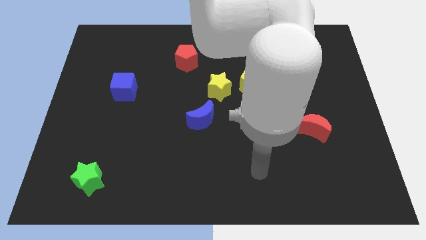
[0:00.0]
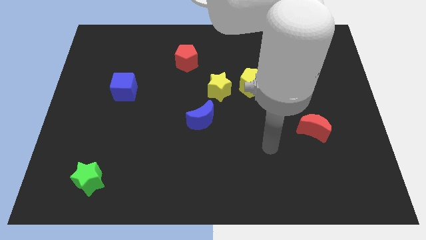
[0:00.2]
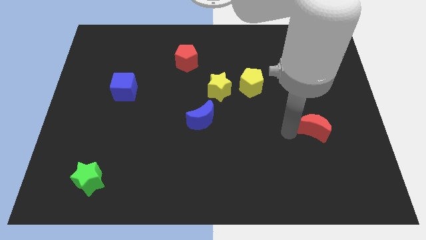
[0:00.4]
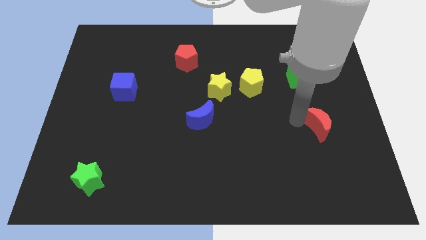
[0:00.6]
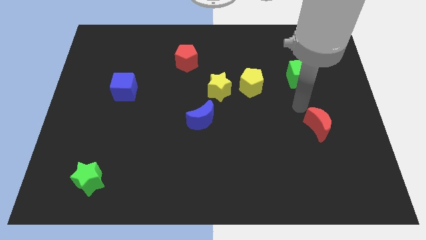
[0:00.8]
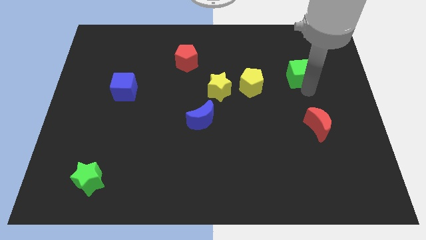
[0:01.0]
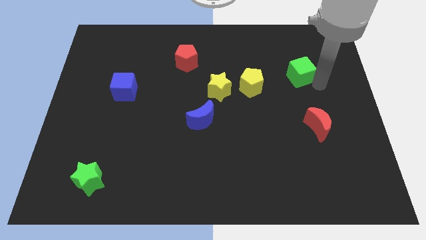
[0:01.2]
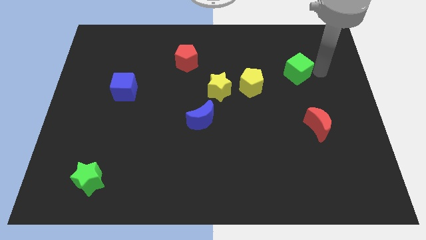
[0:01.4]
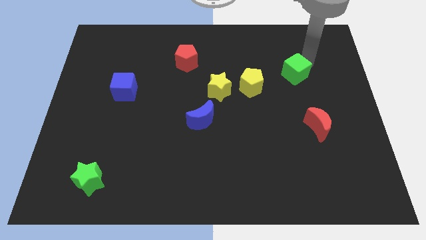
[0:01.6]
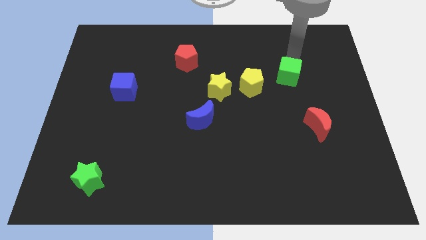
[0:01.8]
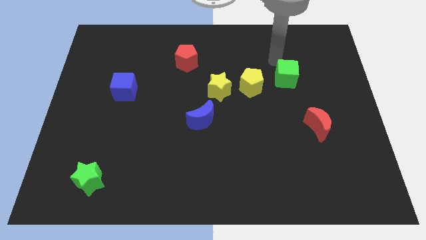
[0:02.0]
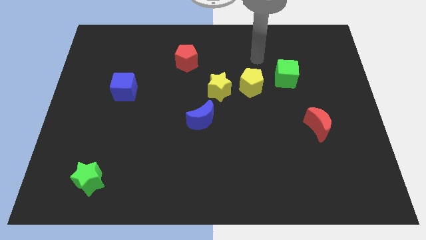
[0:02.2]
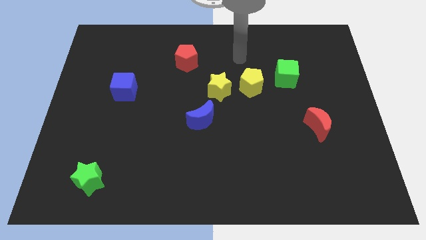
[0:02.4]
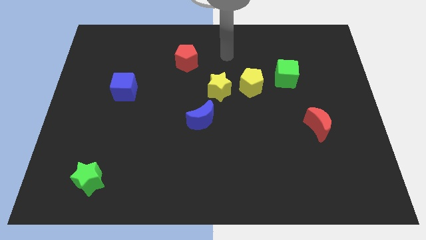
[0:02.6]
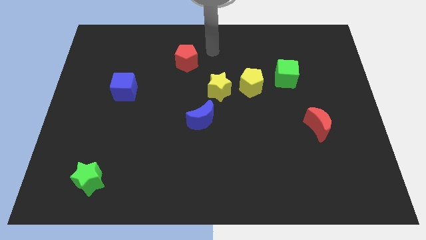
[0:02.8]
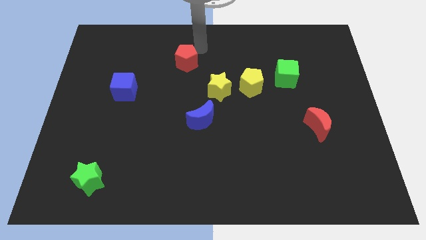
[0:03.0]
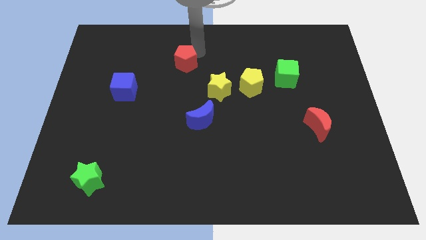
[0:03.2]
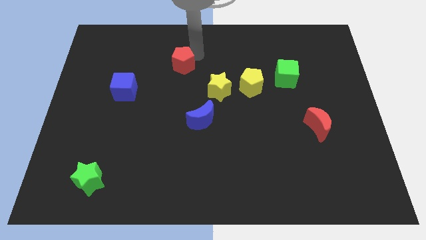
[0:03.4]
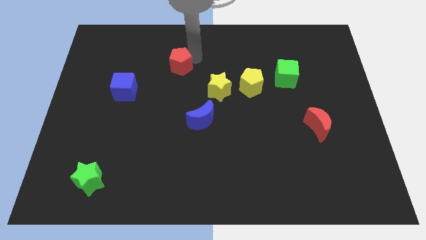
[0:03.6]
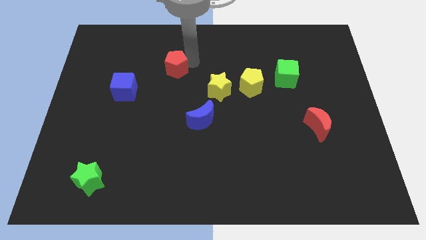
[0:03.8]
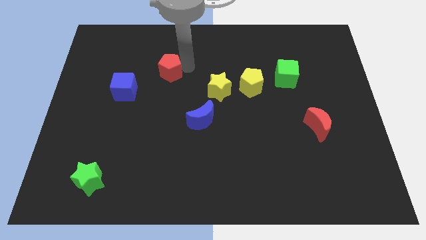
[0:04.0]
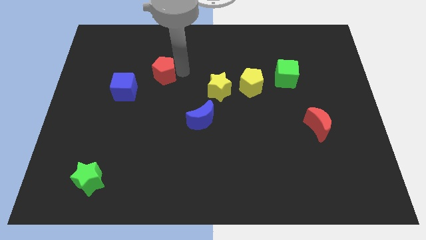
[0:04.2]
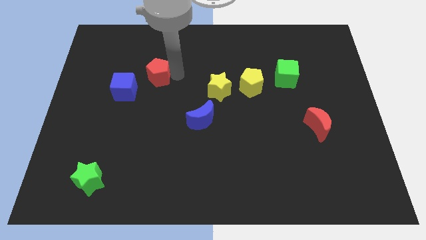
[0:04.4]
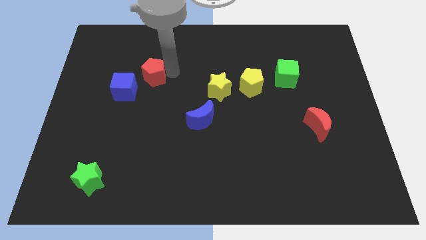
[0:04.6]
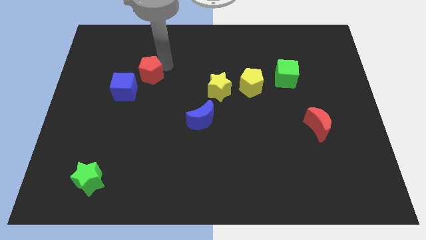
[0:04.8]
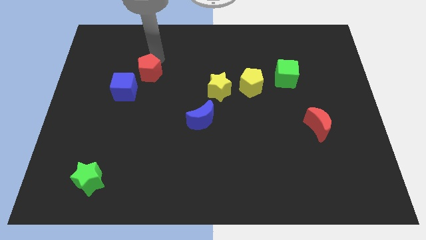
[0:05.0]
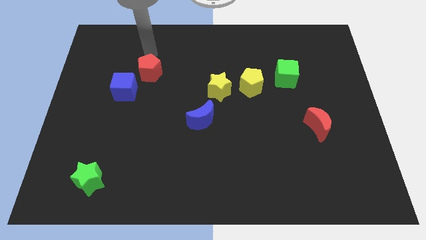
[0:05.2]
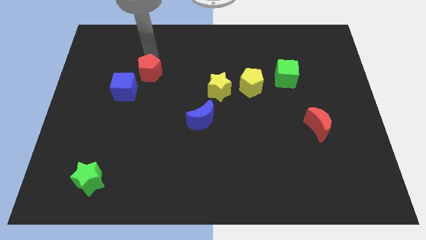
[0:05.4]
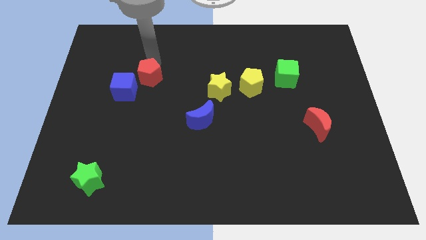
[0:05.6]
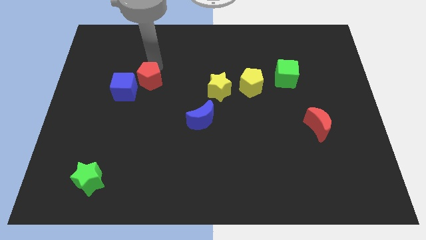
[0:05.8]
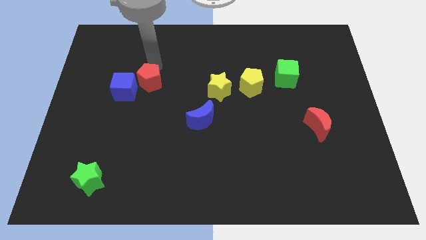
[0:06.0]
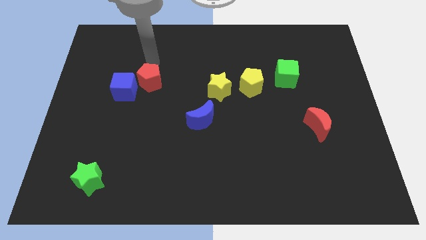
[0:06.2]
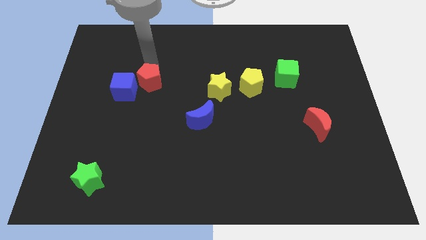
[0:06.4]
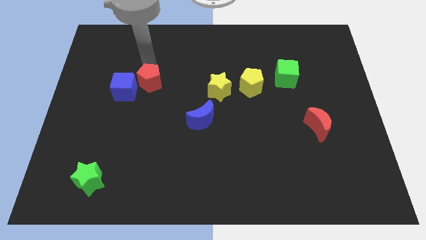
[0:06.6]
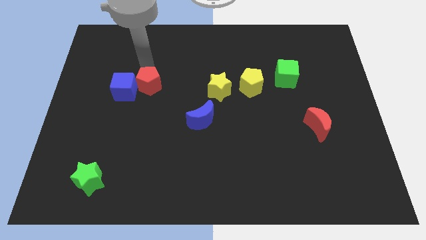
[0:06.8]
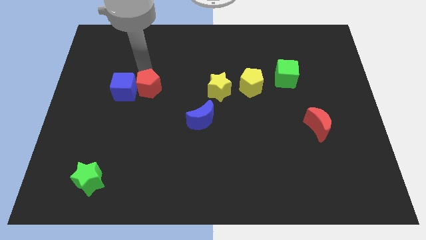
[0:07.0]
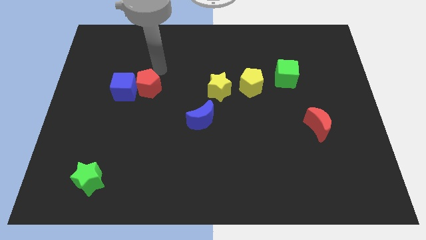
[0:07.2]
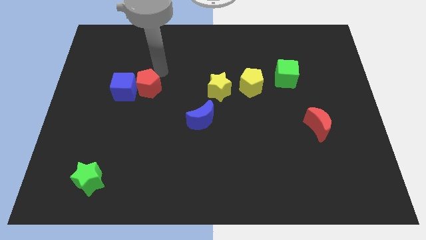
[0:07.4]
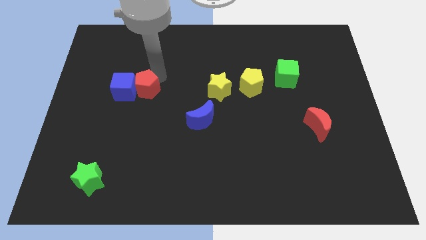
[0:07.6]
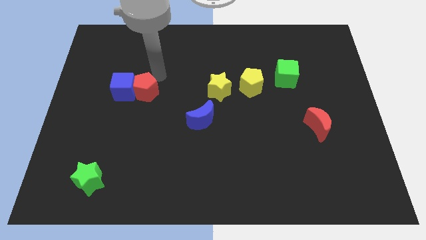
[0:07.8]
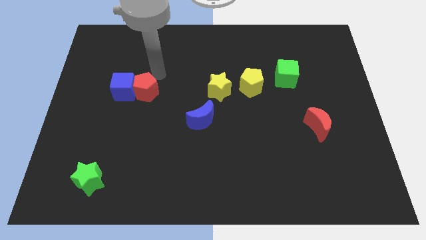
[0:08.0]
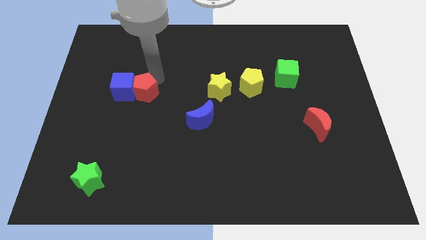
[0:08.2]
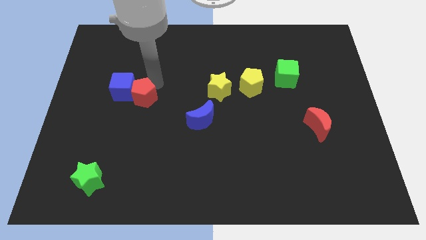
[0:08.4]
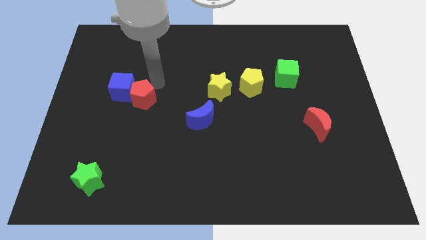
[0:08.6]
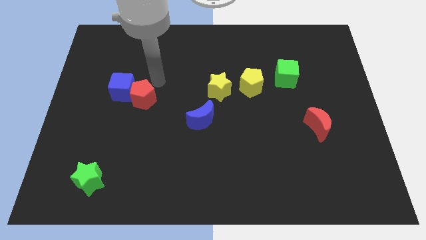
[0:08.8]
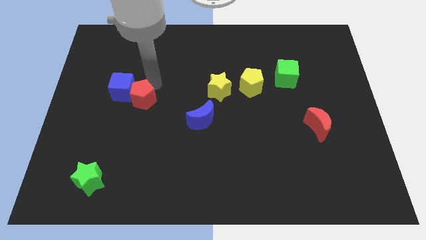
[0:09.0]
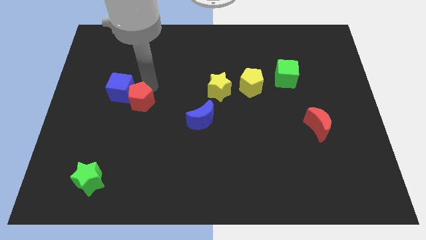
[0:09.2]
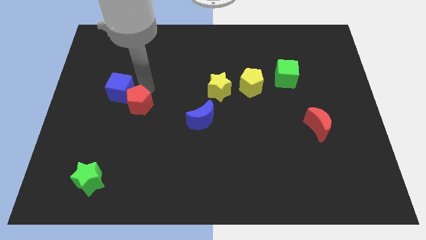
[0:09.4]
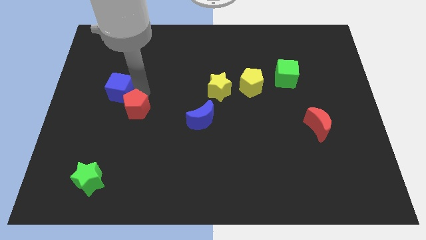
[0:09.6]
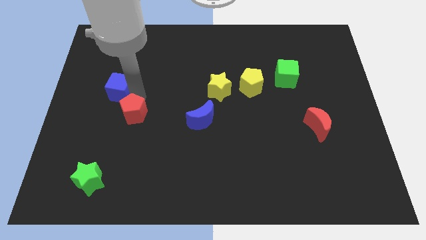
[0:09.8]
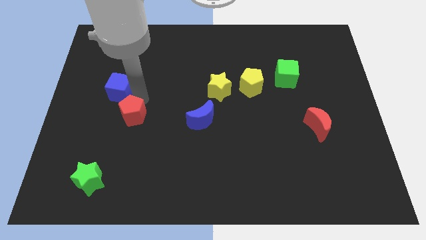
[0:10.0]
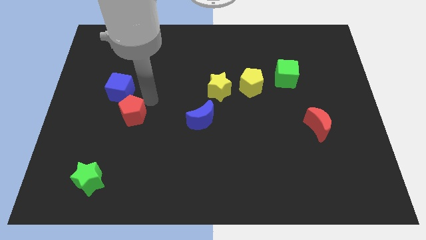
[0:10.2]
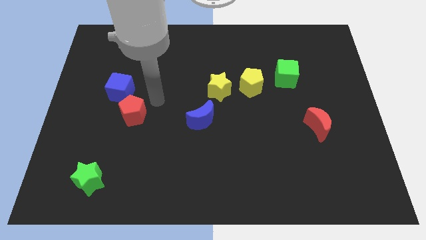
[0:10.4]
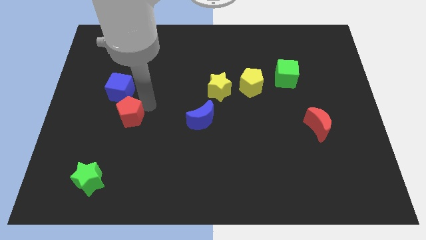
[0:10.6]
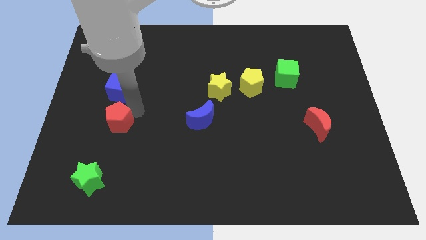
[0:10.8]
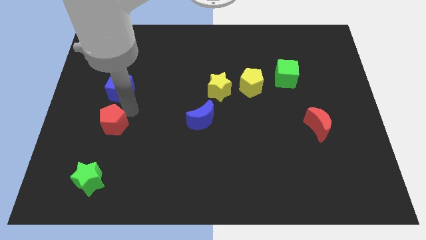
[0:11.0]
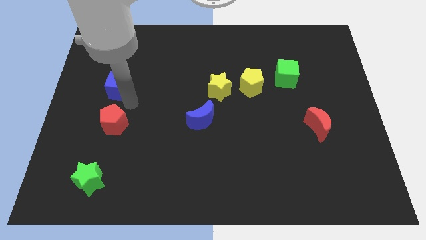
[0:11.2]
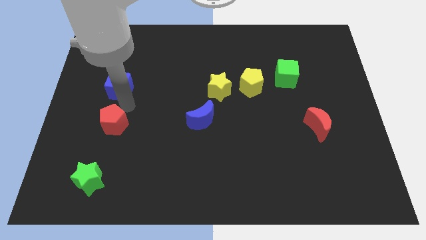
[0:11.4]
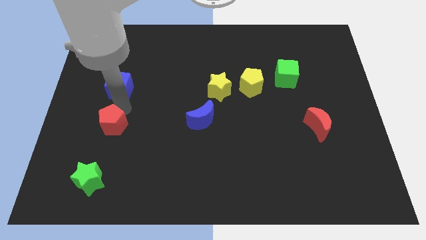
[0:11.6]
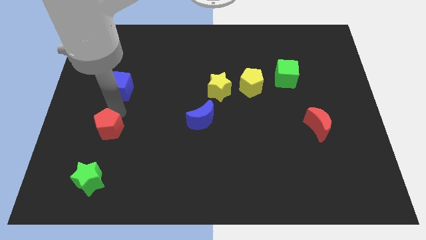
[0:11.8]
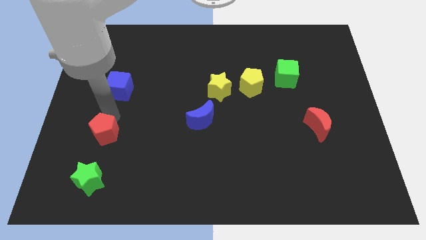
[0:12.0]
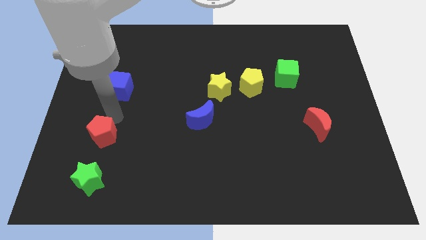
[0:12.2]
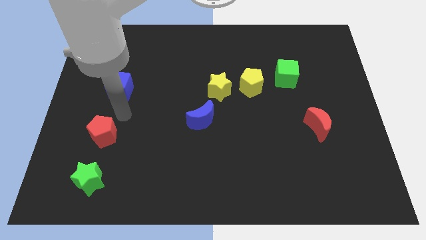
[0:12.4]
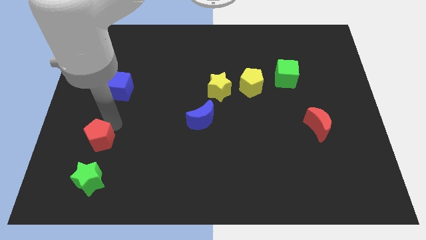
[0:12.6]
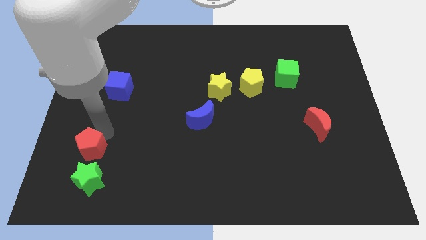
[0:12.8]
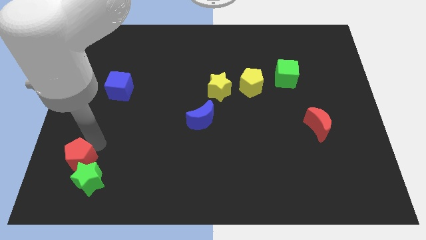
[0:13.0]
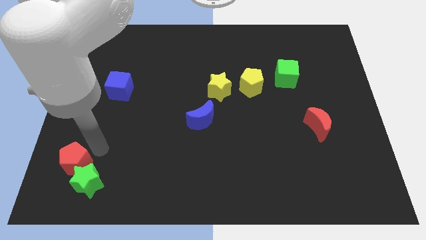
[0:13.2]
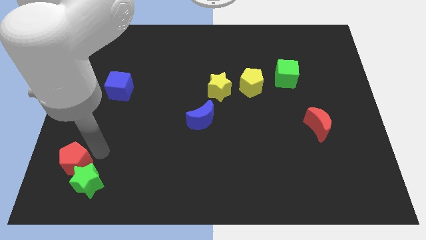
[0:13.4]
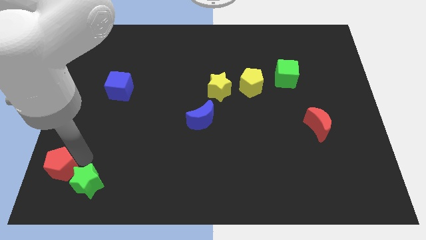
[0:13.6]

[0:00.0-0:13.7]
push the red pentagon to the bottom left of the board
